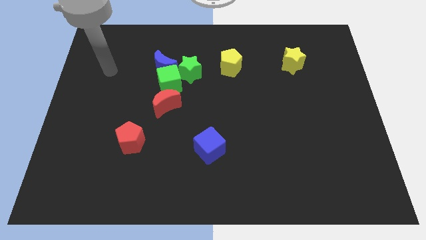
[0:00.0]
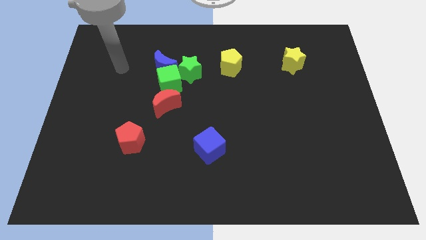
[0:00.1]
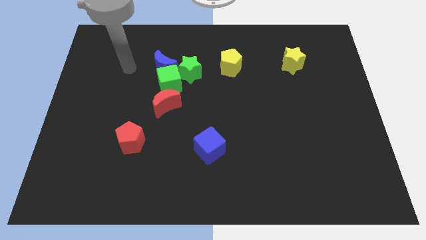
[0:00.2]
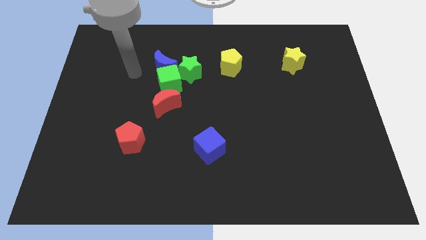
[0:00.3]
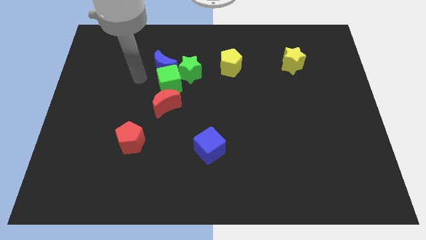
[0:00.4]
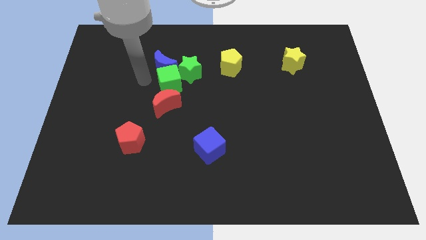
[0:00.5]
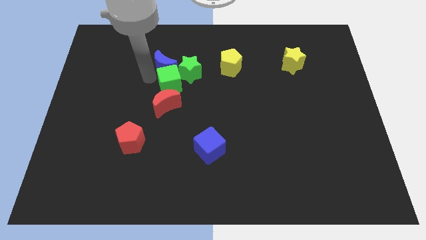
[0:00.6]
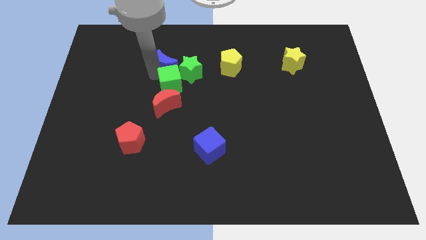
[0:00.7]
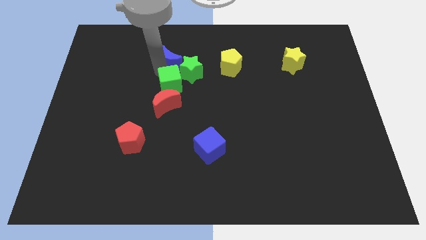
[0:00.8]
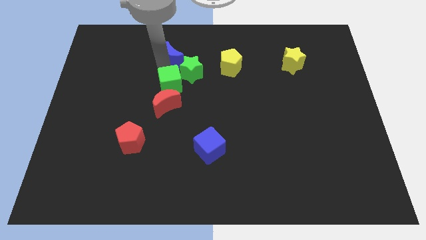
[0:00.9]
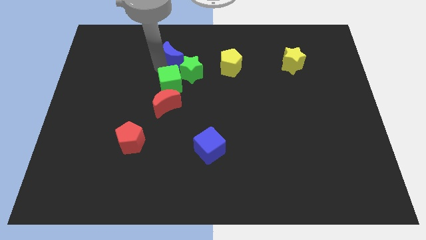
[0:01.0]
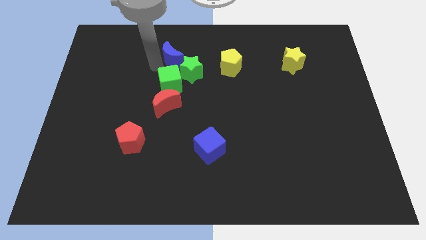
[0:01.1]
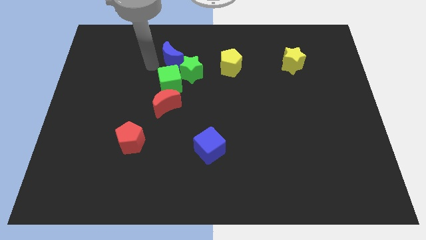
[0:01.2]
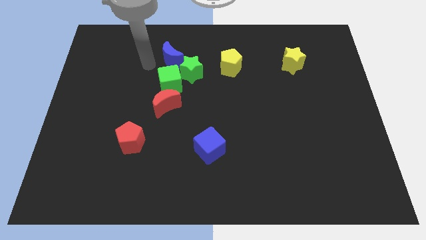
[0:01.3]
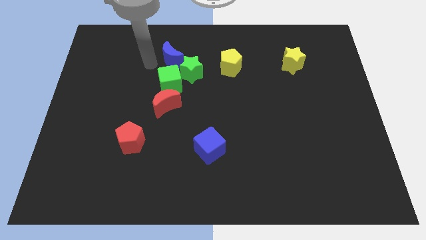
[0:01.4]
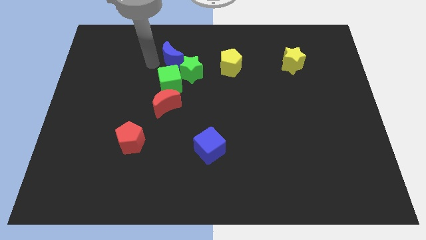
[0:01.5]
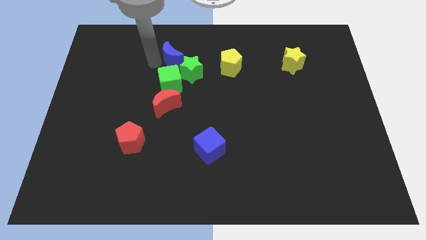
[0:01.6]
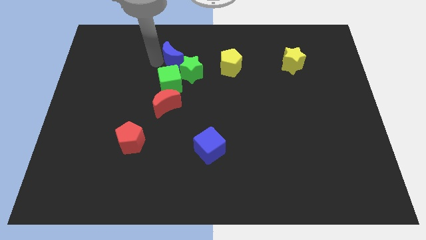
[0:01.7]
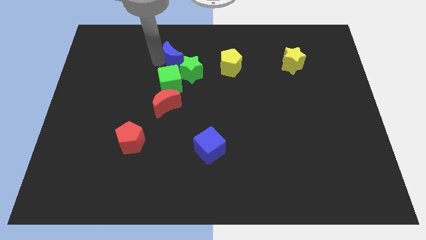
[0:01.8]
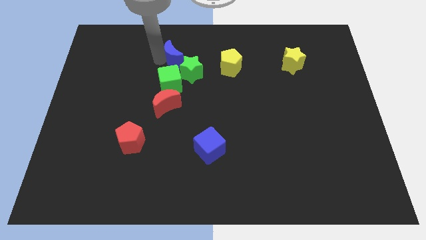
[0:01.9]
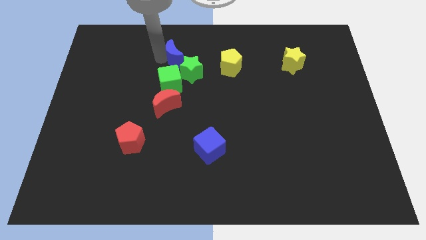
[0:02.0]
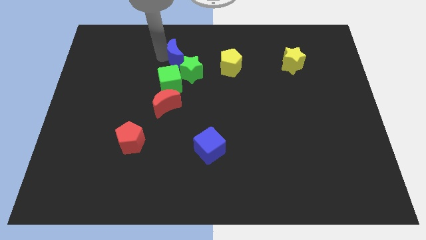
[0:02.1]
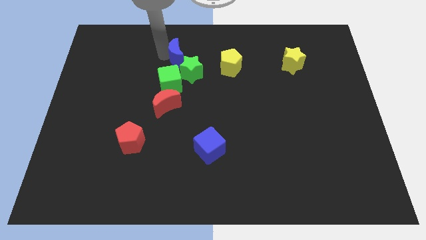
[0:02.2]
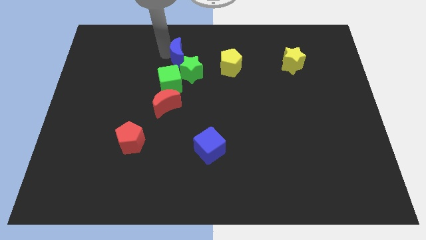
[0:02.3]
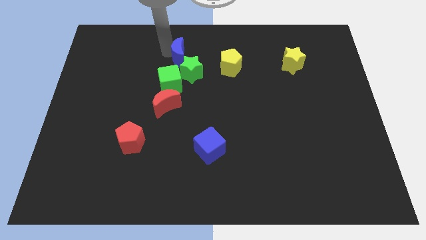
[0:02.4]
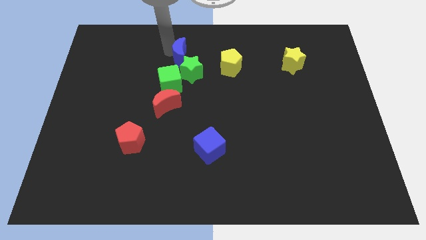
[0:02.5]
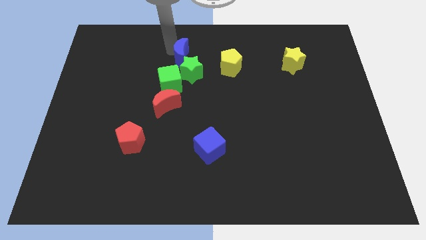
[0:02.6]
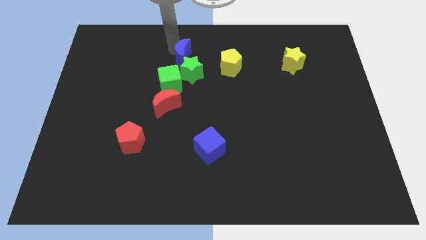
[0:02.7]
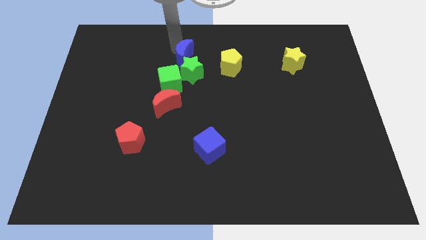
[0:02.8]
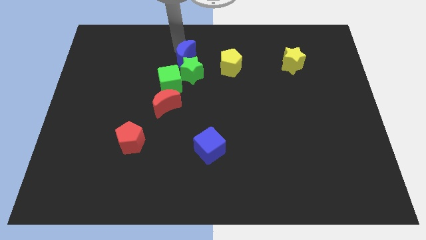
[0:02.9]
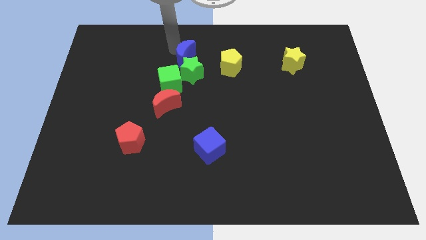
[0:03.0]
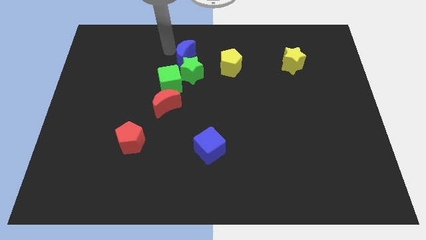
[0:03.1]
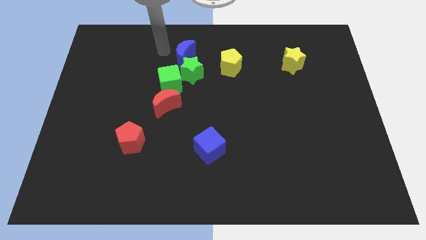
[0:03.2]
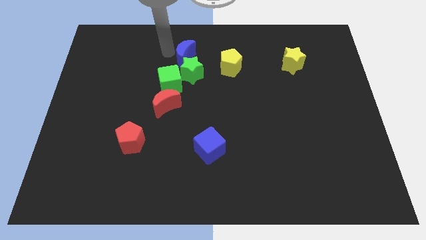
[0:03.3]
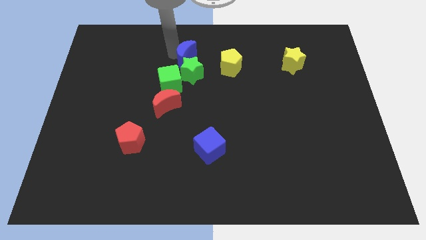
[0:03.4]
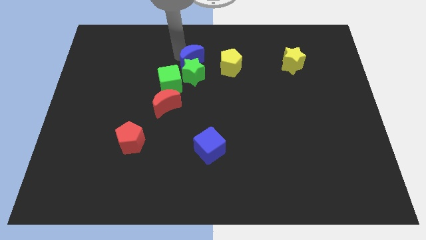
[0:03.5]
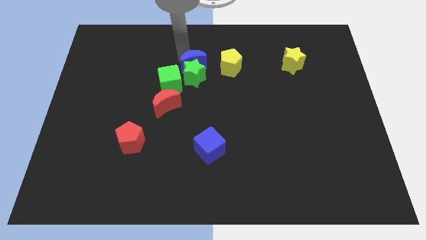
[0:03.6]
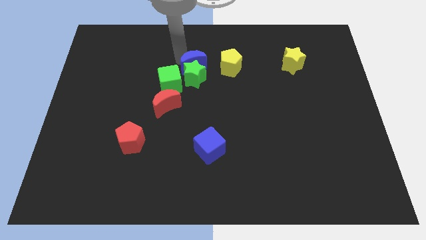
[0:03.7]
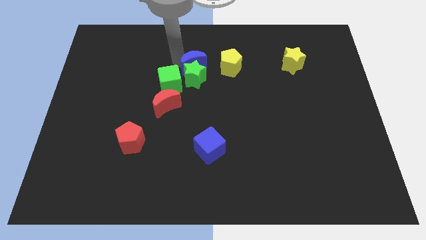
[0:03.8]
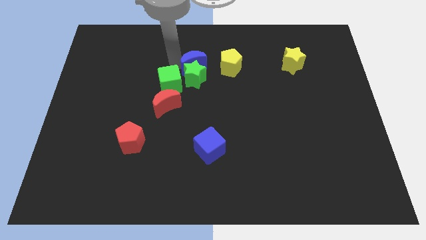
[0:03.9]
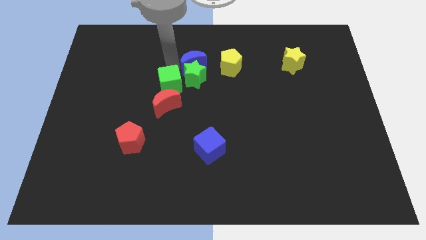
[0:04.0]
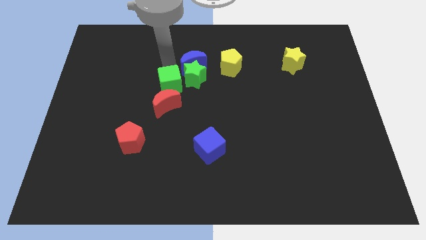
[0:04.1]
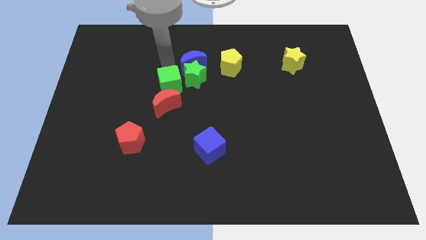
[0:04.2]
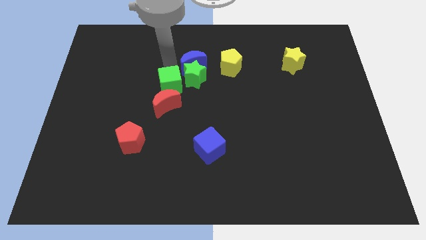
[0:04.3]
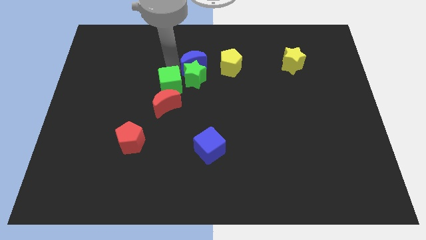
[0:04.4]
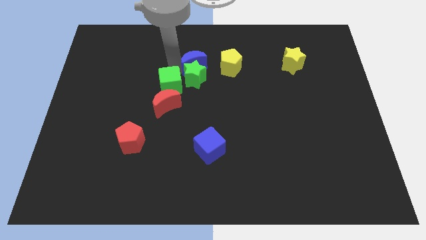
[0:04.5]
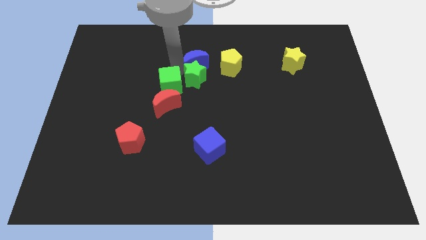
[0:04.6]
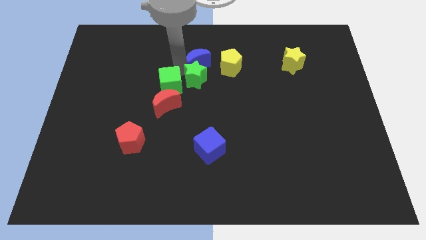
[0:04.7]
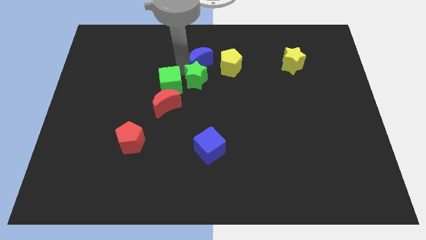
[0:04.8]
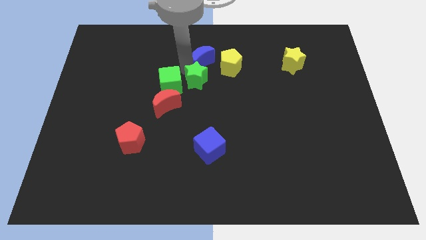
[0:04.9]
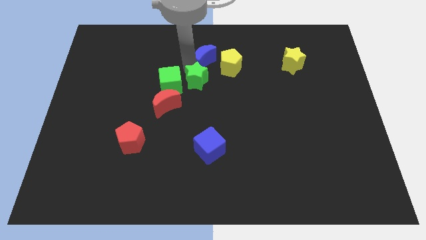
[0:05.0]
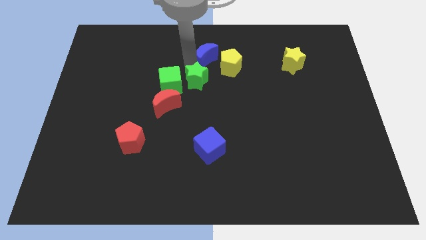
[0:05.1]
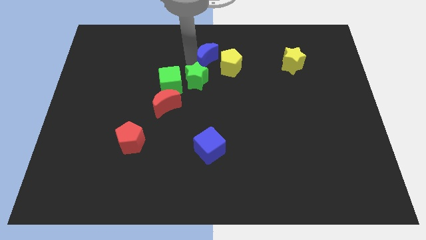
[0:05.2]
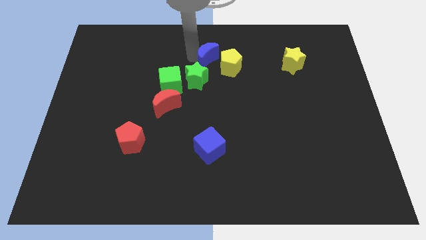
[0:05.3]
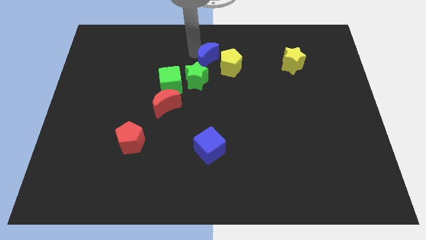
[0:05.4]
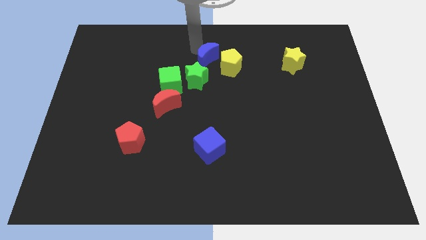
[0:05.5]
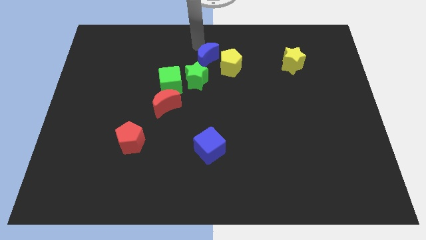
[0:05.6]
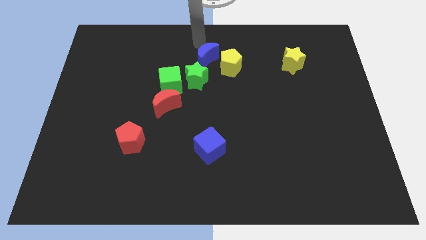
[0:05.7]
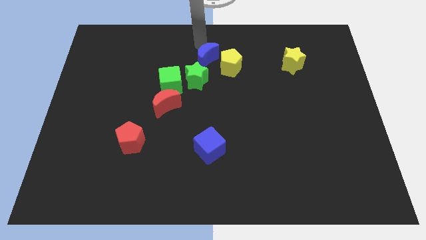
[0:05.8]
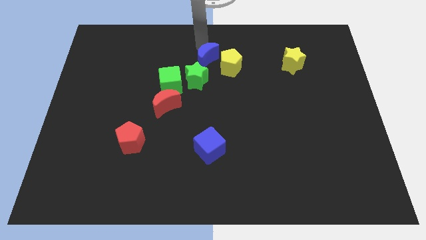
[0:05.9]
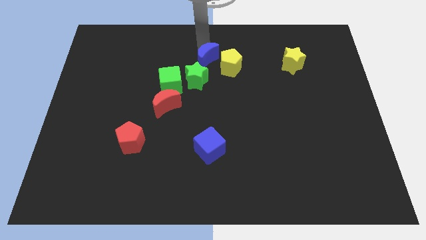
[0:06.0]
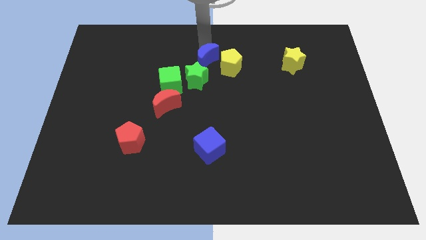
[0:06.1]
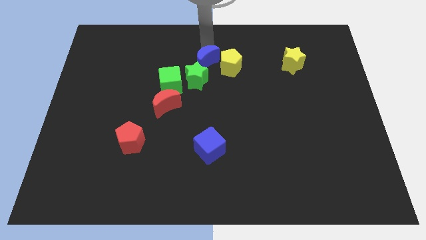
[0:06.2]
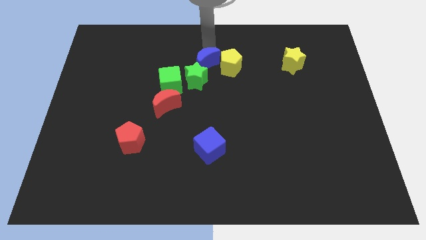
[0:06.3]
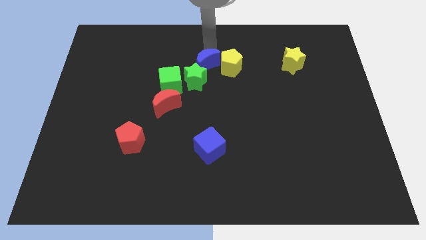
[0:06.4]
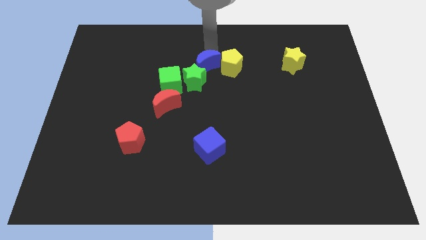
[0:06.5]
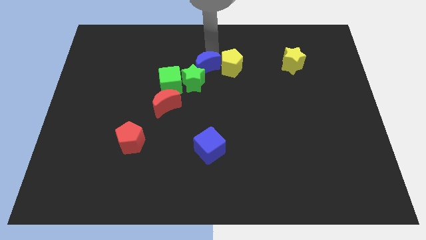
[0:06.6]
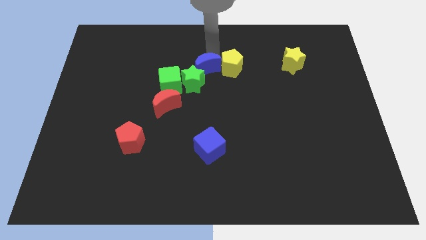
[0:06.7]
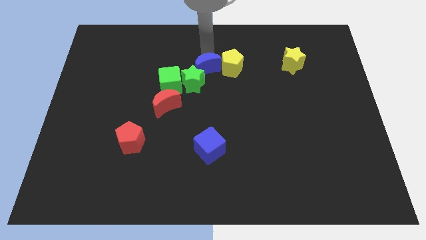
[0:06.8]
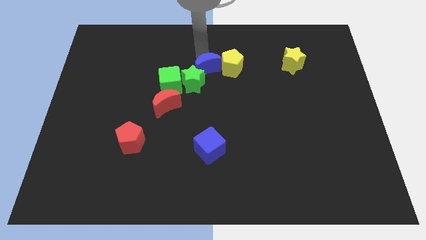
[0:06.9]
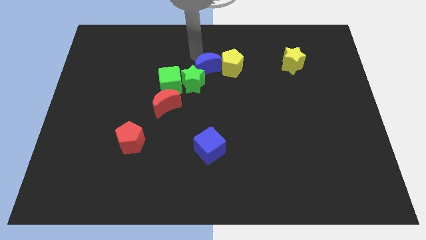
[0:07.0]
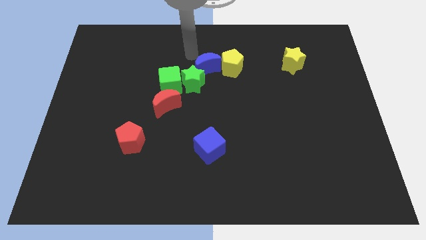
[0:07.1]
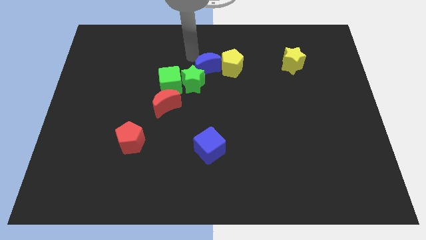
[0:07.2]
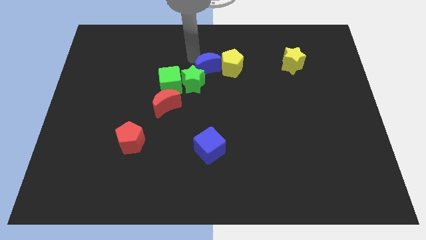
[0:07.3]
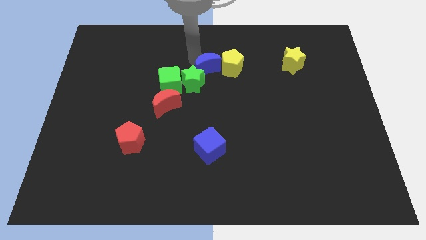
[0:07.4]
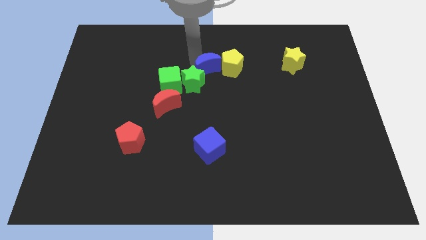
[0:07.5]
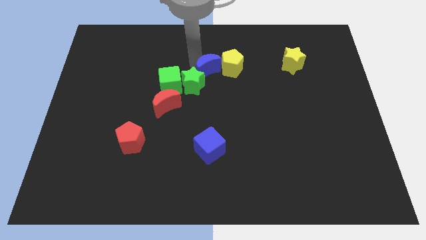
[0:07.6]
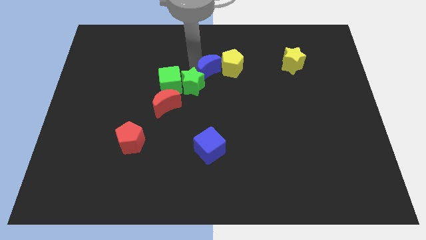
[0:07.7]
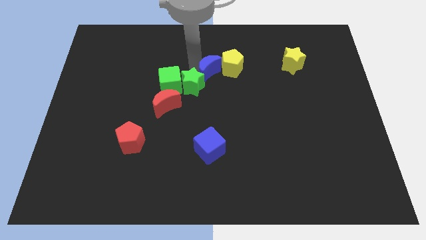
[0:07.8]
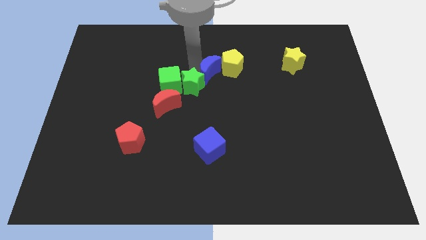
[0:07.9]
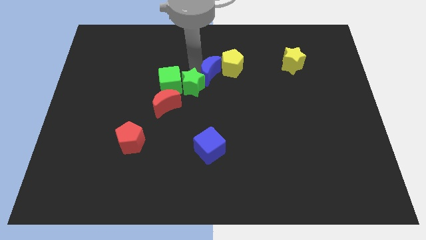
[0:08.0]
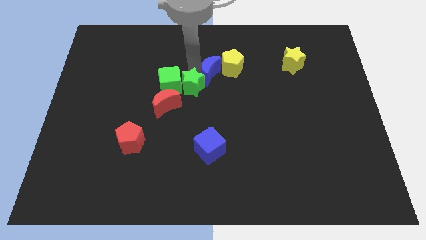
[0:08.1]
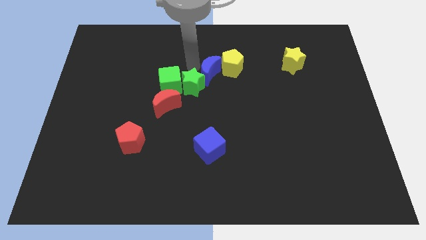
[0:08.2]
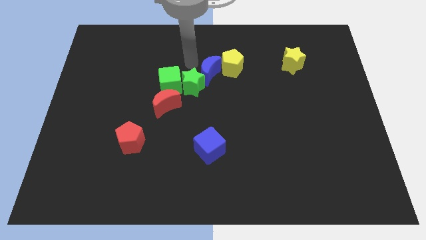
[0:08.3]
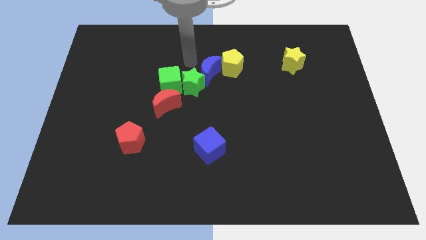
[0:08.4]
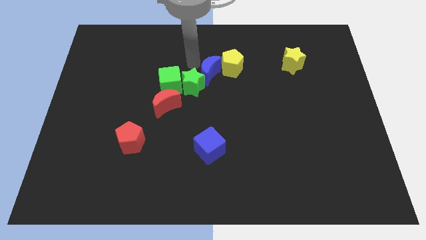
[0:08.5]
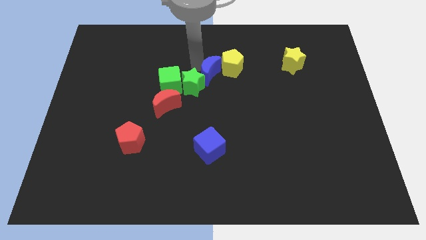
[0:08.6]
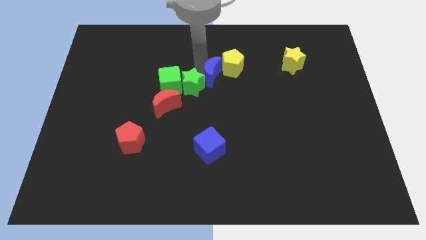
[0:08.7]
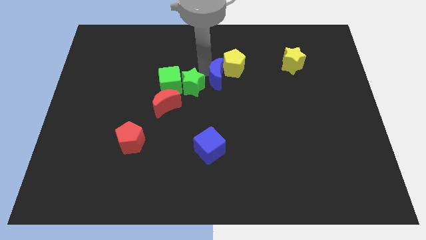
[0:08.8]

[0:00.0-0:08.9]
slide the blue moon to the bottom side of the yellow pentagon
